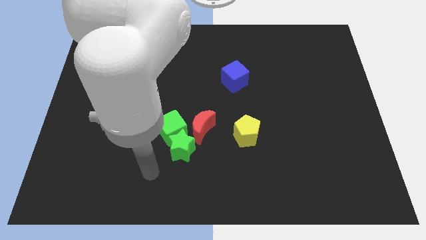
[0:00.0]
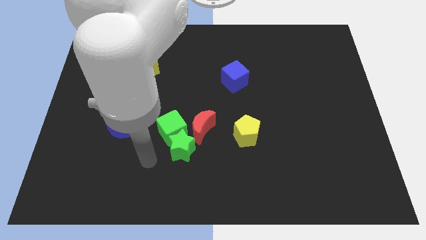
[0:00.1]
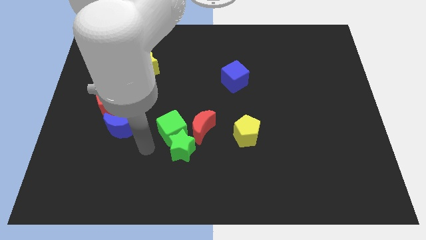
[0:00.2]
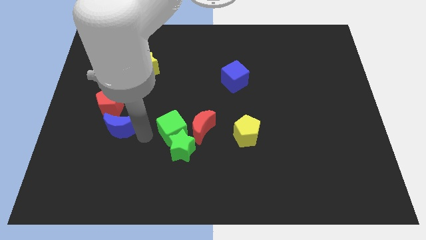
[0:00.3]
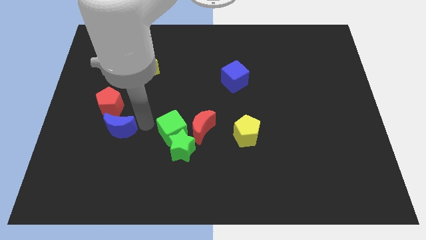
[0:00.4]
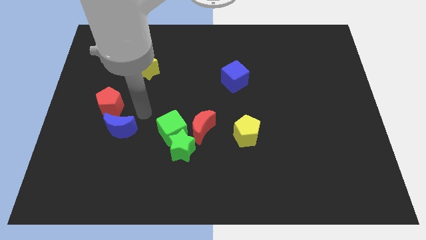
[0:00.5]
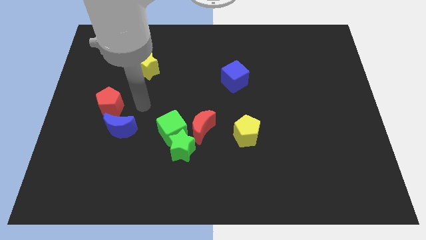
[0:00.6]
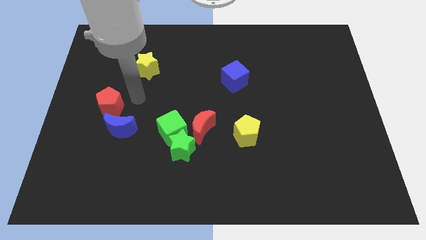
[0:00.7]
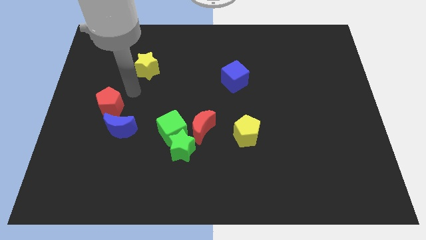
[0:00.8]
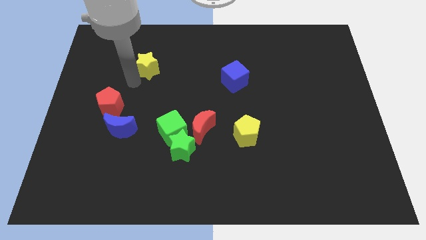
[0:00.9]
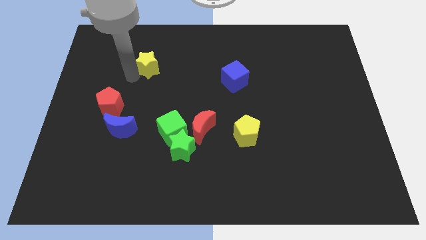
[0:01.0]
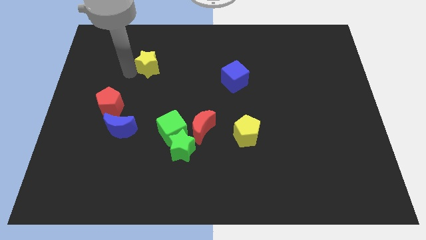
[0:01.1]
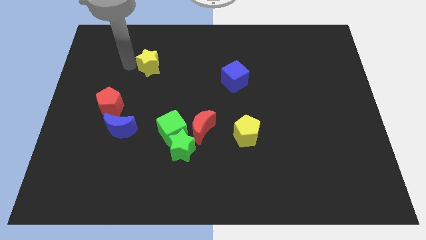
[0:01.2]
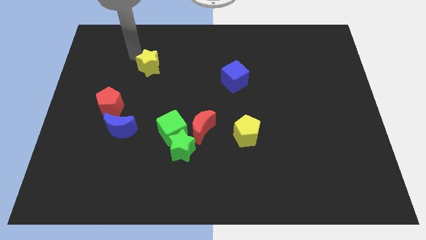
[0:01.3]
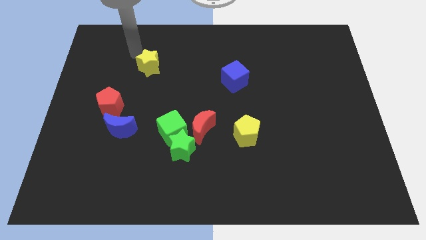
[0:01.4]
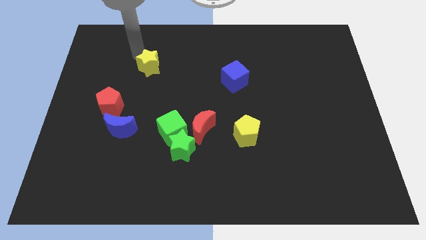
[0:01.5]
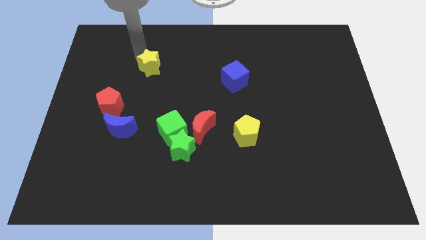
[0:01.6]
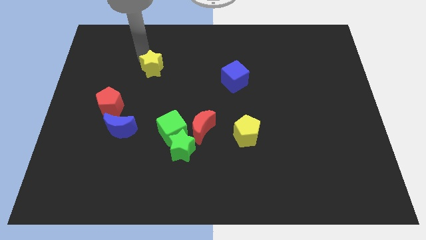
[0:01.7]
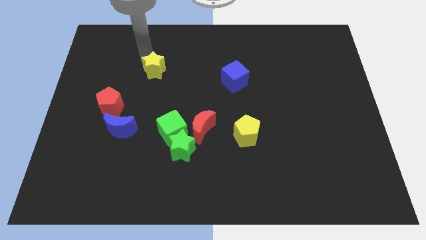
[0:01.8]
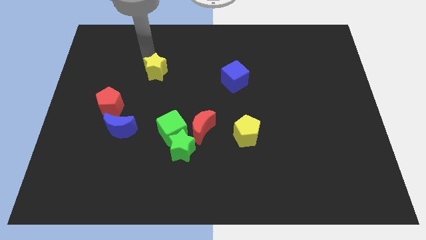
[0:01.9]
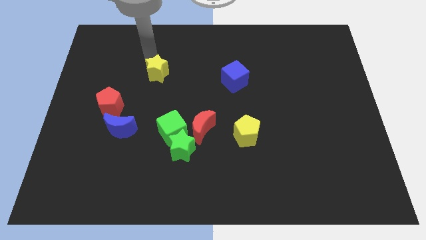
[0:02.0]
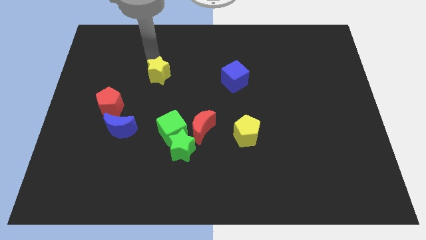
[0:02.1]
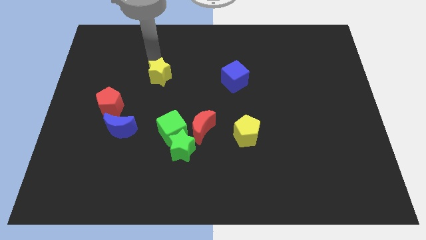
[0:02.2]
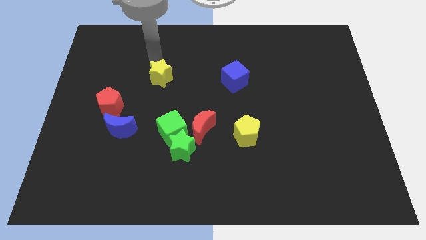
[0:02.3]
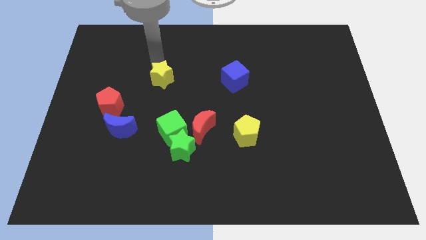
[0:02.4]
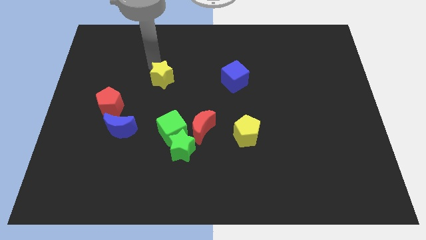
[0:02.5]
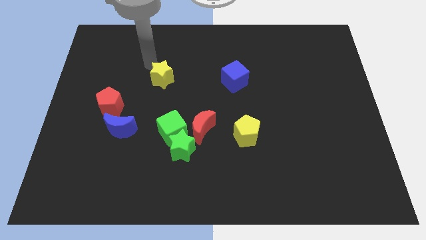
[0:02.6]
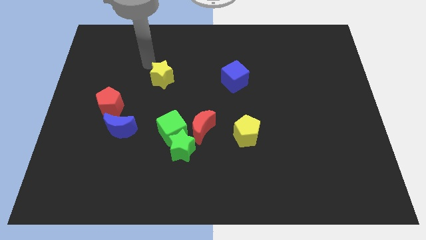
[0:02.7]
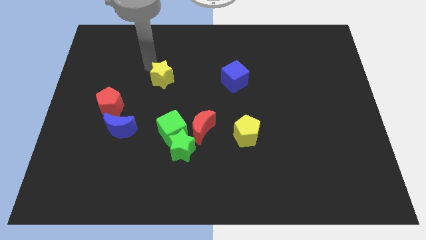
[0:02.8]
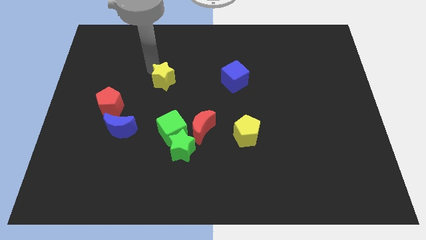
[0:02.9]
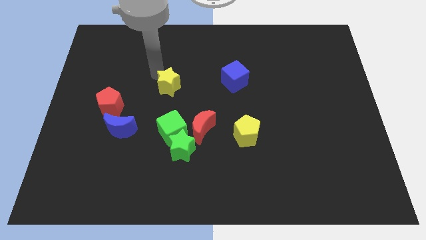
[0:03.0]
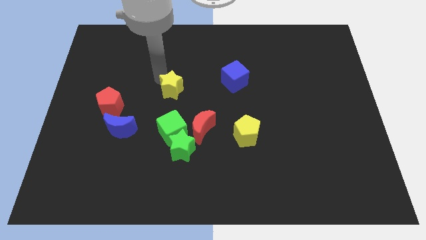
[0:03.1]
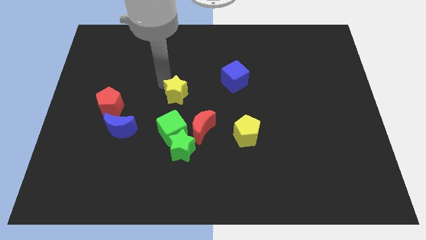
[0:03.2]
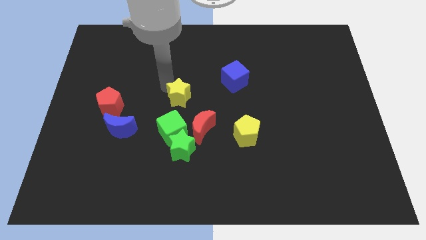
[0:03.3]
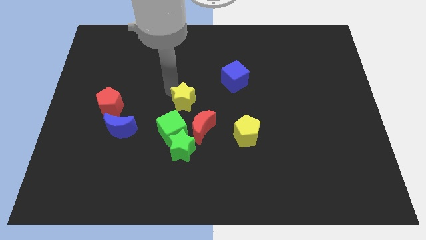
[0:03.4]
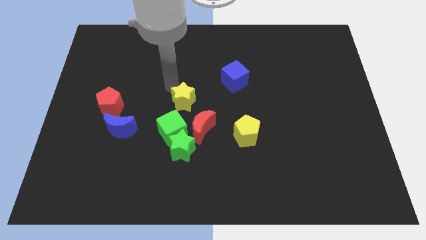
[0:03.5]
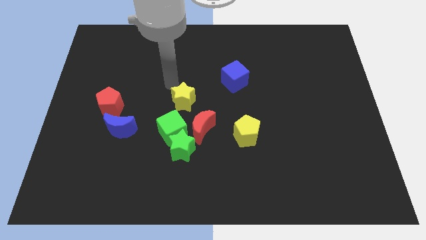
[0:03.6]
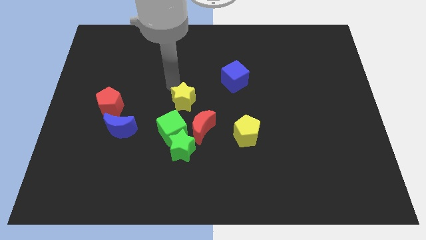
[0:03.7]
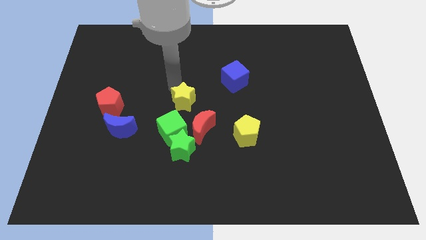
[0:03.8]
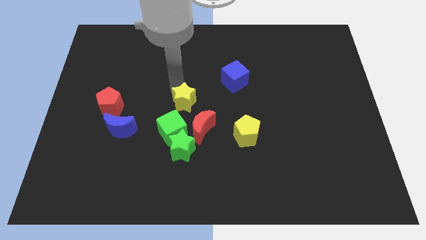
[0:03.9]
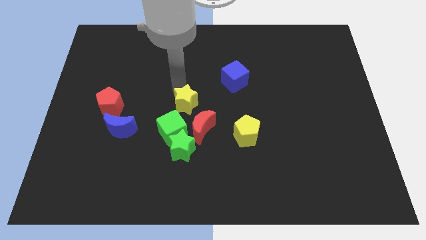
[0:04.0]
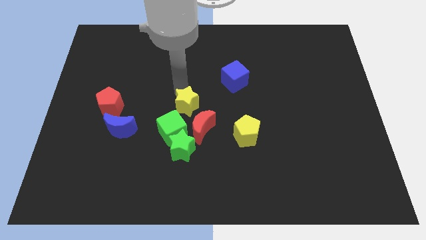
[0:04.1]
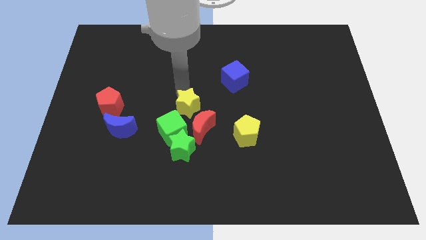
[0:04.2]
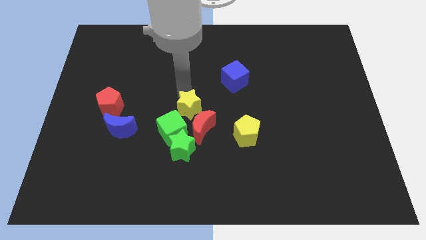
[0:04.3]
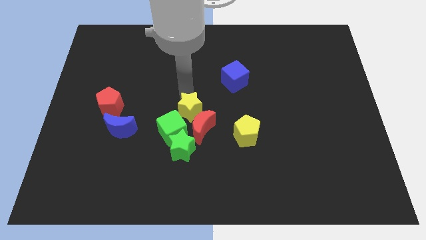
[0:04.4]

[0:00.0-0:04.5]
push the yellow star next to the red moon

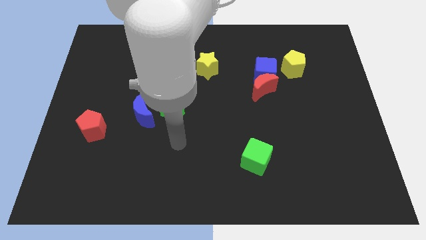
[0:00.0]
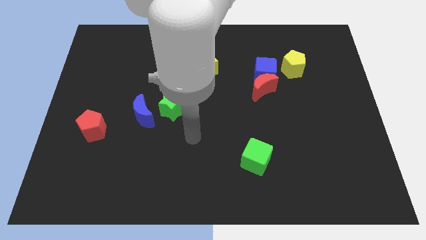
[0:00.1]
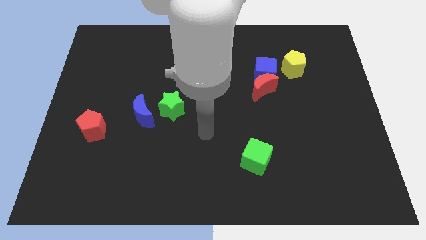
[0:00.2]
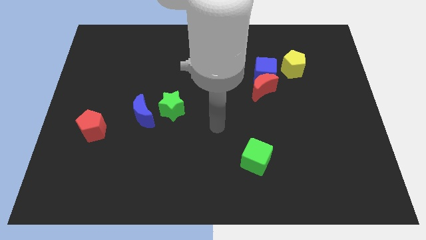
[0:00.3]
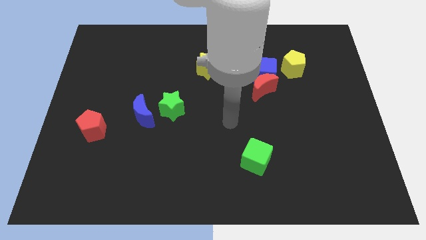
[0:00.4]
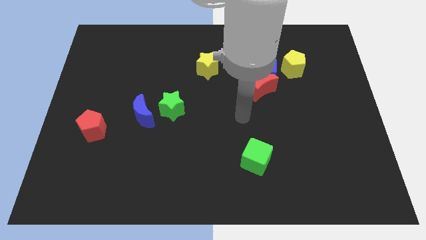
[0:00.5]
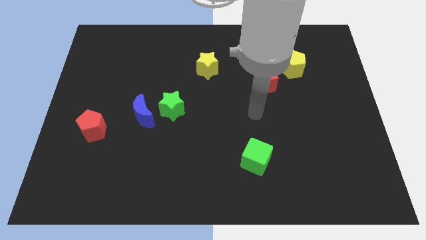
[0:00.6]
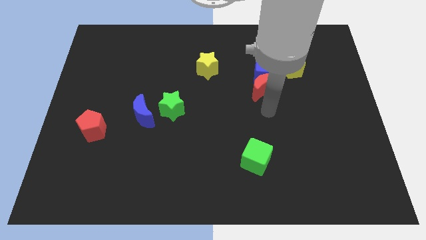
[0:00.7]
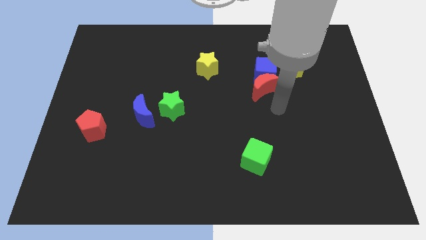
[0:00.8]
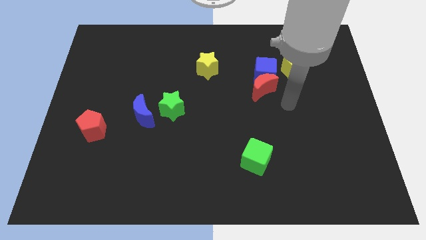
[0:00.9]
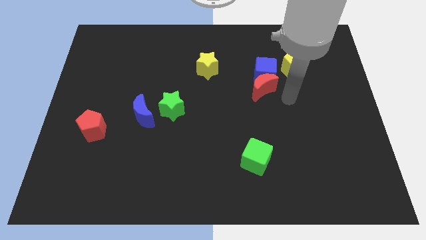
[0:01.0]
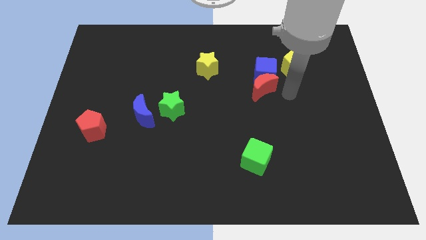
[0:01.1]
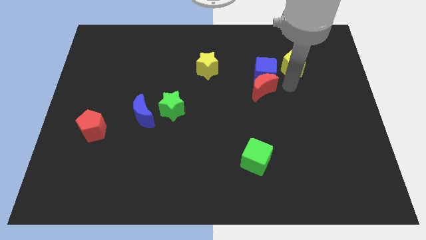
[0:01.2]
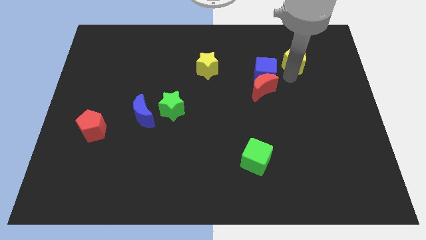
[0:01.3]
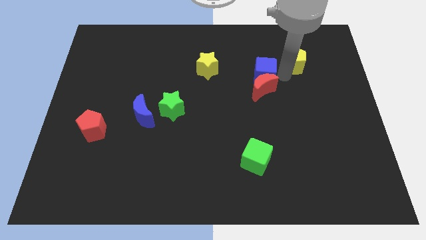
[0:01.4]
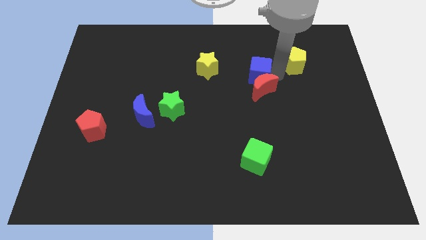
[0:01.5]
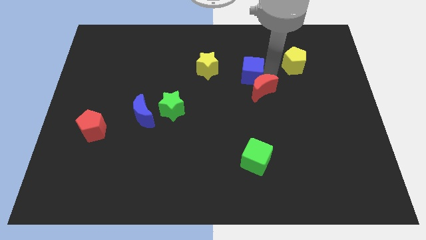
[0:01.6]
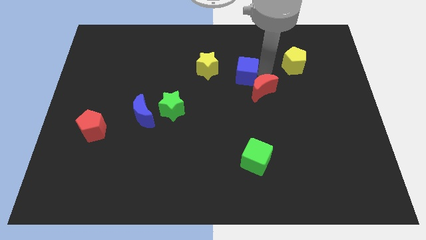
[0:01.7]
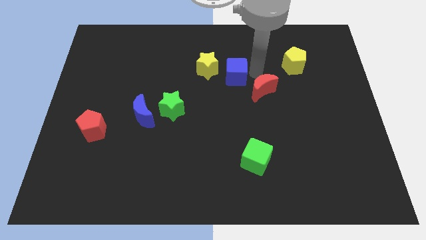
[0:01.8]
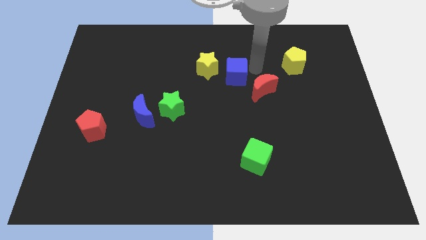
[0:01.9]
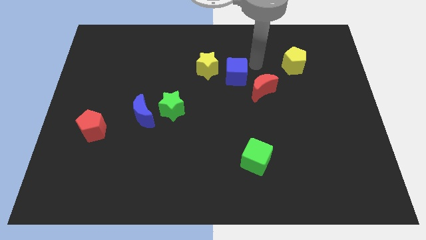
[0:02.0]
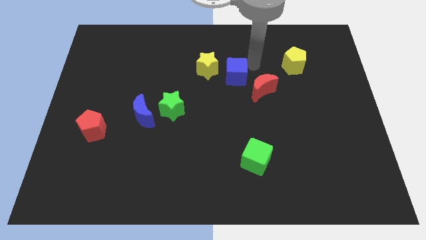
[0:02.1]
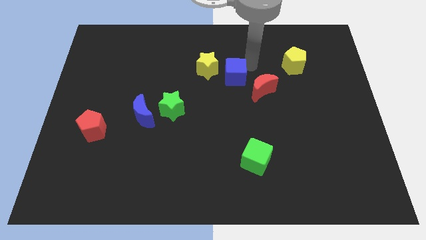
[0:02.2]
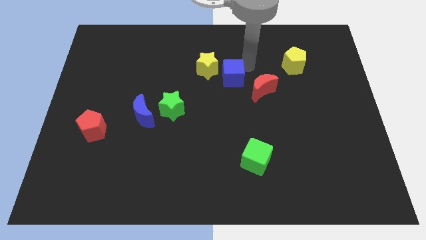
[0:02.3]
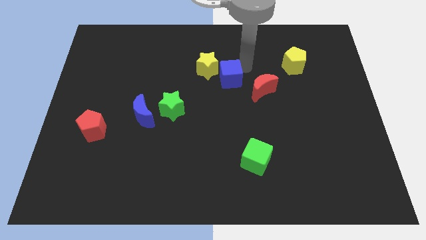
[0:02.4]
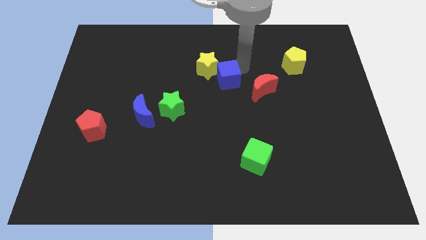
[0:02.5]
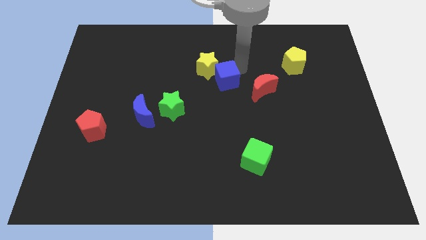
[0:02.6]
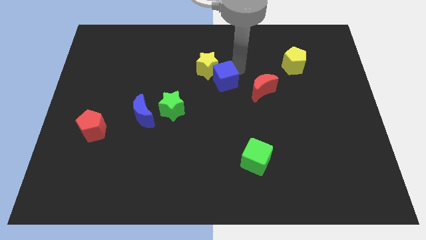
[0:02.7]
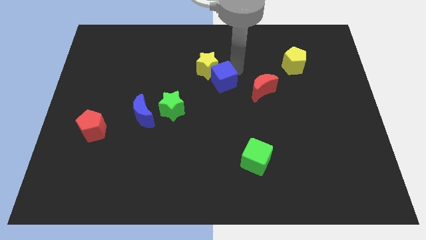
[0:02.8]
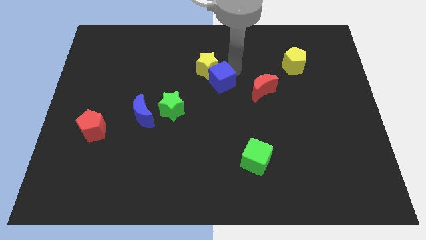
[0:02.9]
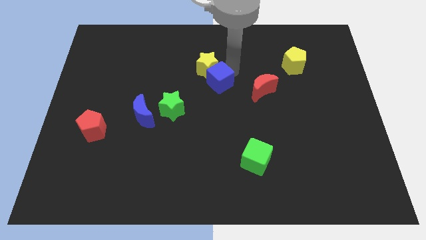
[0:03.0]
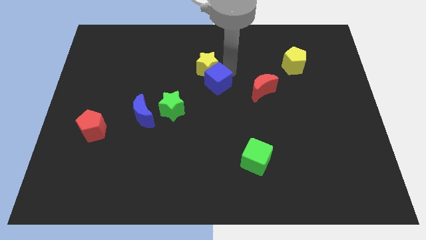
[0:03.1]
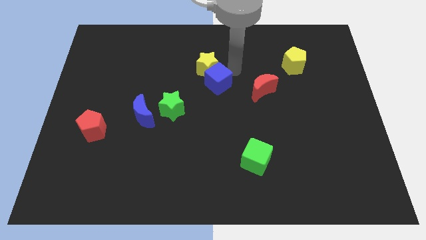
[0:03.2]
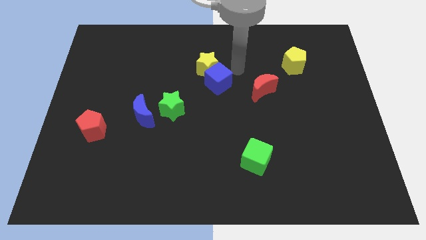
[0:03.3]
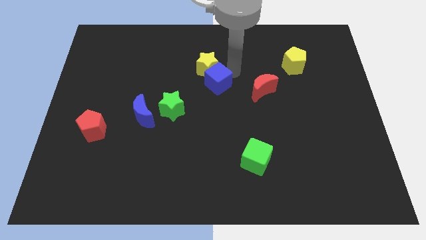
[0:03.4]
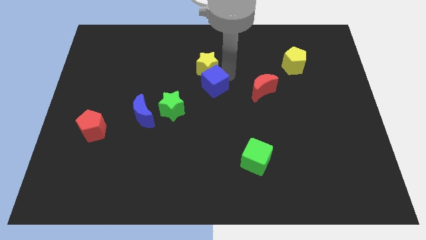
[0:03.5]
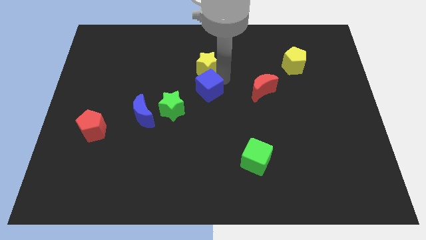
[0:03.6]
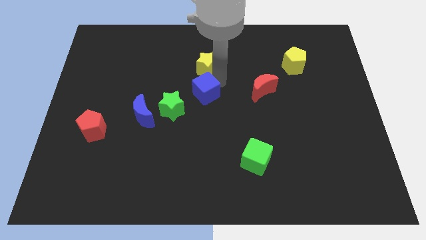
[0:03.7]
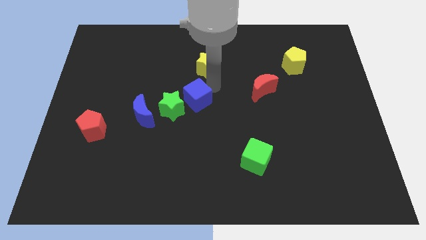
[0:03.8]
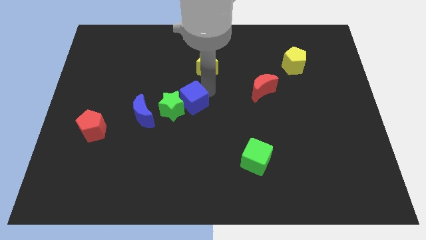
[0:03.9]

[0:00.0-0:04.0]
slide the blue cube to the green star
